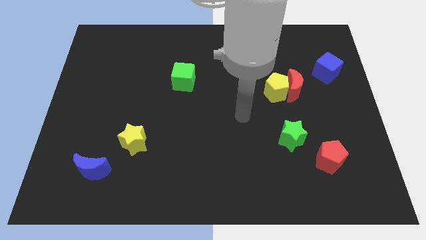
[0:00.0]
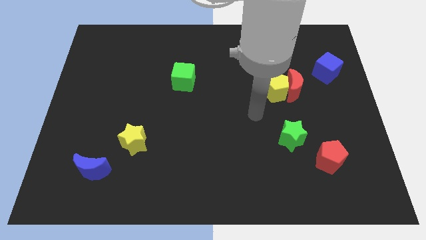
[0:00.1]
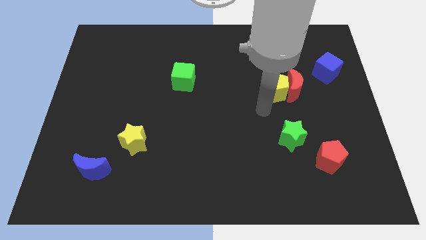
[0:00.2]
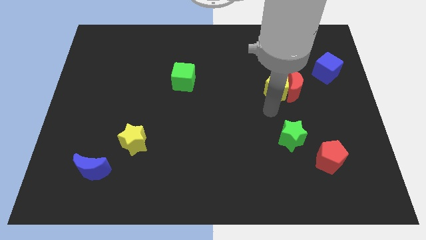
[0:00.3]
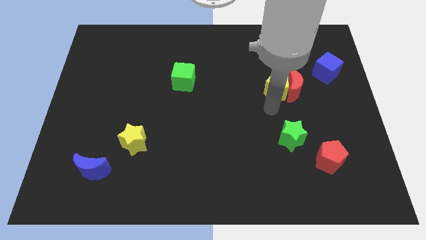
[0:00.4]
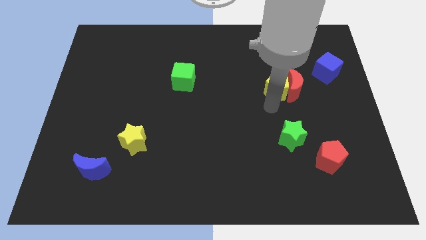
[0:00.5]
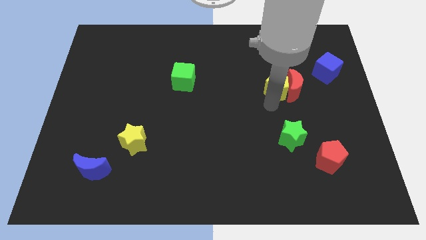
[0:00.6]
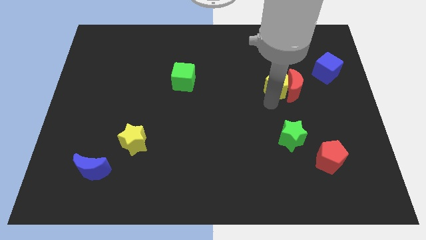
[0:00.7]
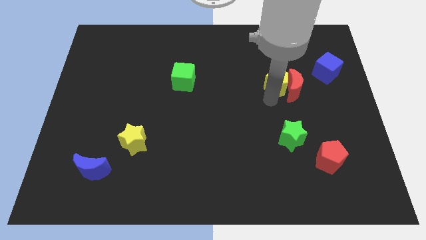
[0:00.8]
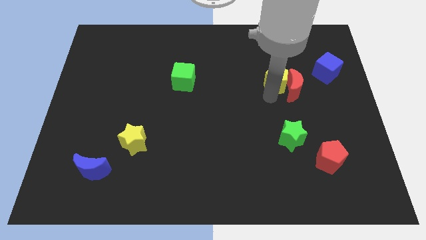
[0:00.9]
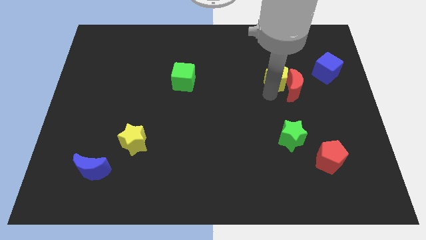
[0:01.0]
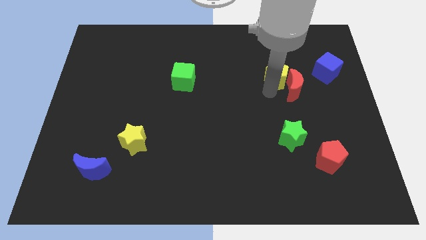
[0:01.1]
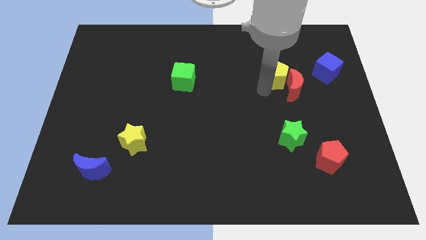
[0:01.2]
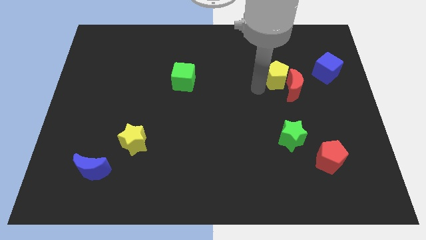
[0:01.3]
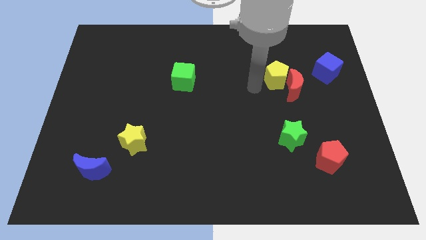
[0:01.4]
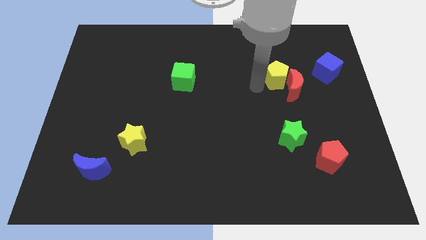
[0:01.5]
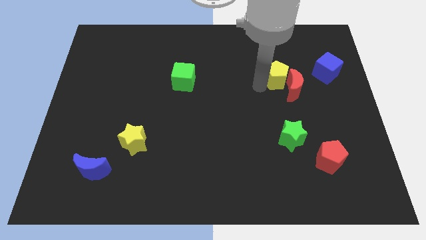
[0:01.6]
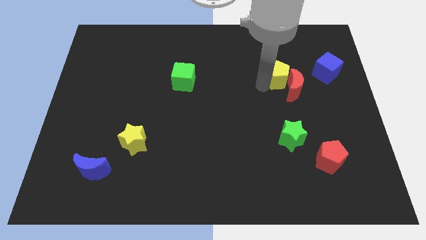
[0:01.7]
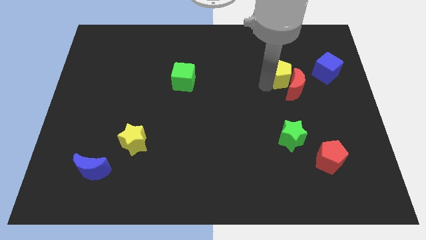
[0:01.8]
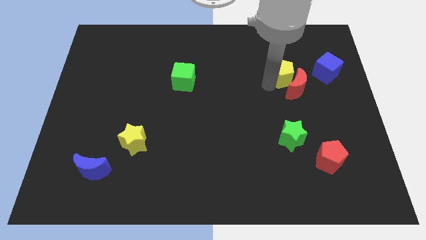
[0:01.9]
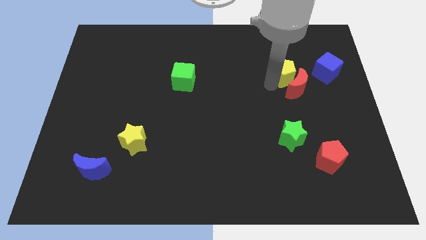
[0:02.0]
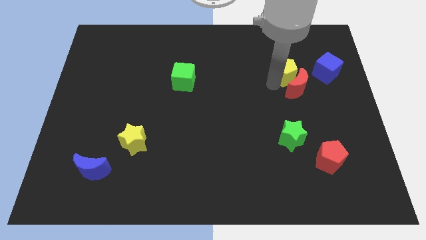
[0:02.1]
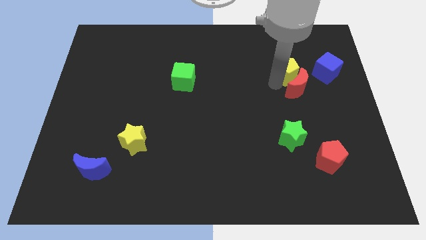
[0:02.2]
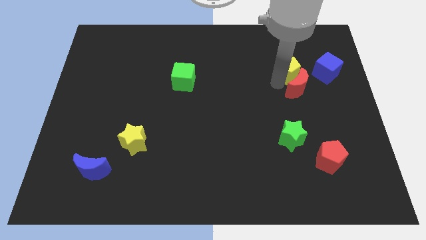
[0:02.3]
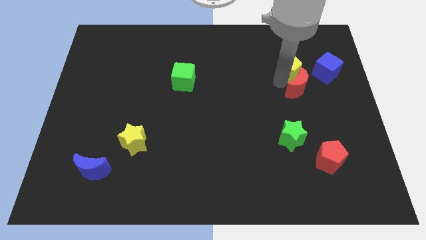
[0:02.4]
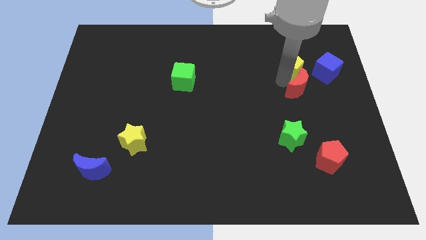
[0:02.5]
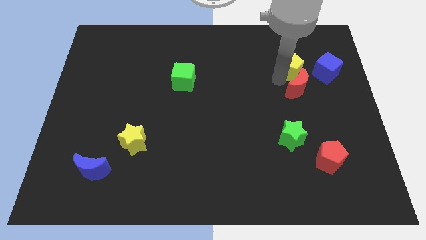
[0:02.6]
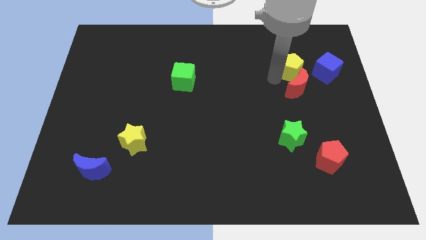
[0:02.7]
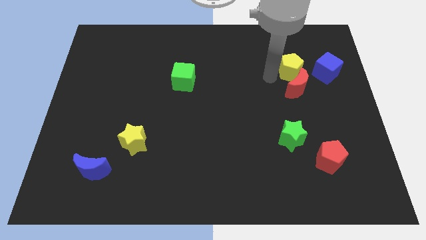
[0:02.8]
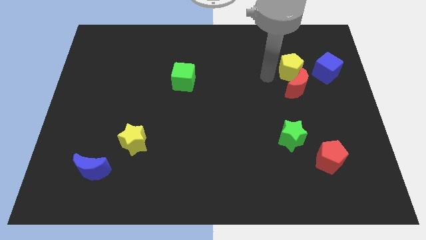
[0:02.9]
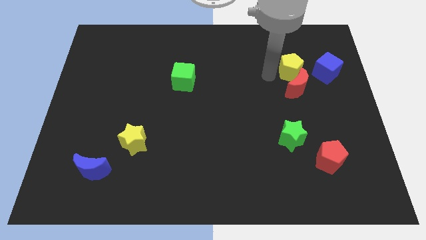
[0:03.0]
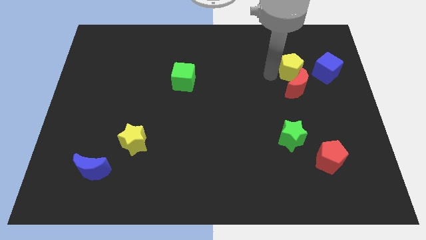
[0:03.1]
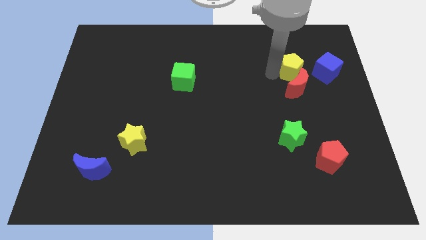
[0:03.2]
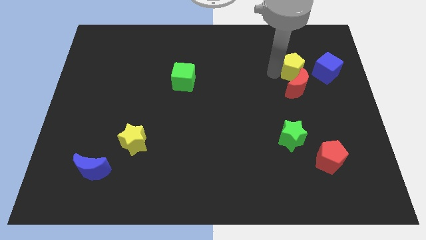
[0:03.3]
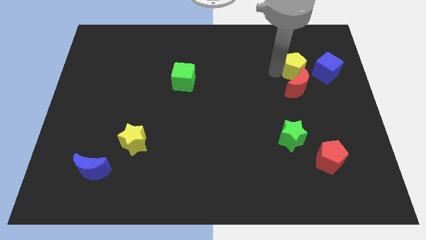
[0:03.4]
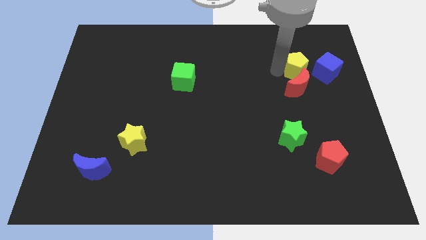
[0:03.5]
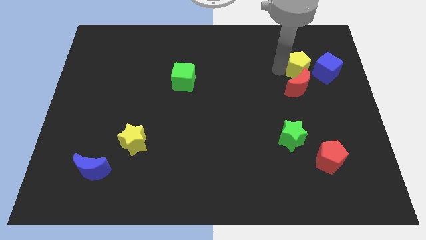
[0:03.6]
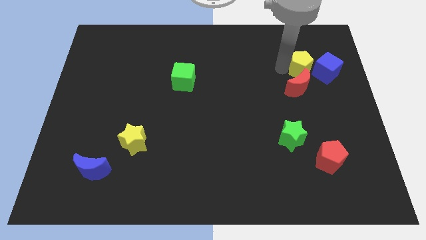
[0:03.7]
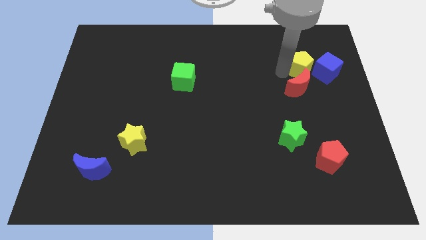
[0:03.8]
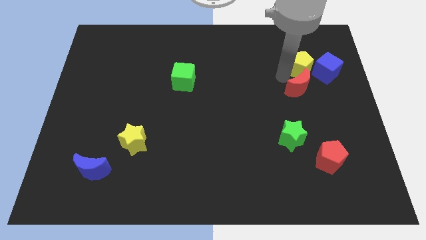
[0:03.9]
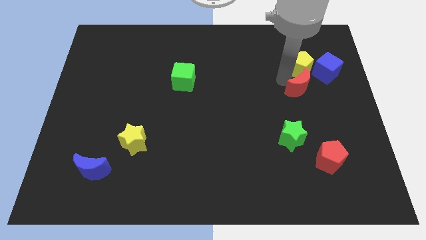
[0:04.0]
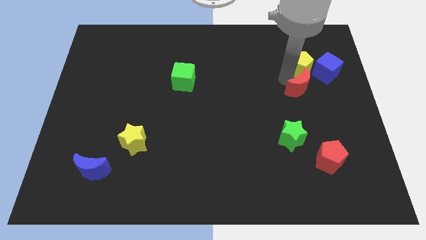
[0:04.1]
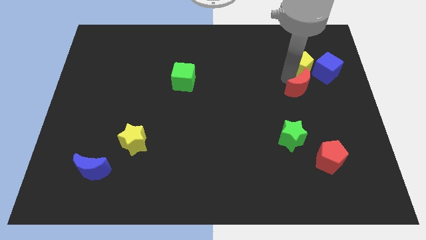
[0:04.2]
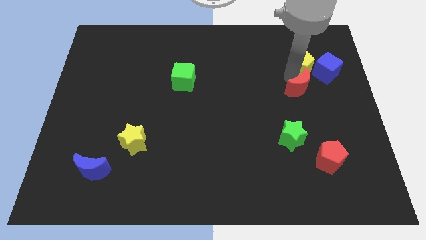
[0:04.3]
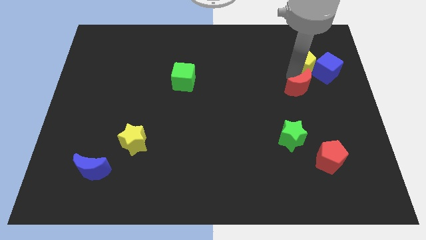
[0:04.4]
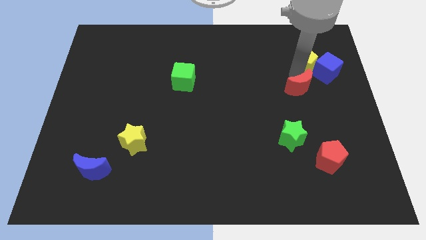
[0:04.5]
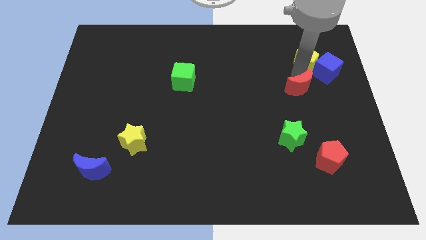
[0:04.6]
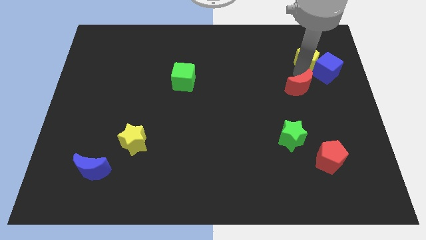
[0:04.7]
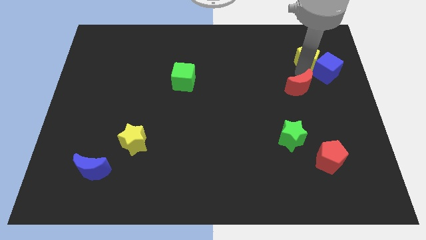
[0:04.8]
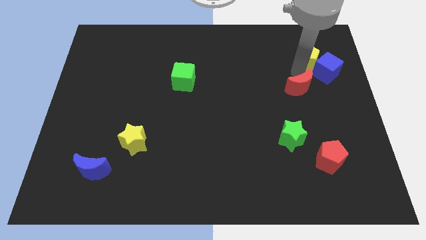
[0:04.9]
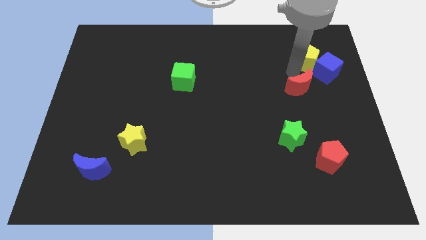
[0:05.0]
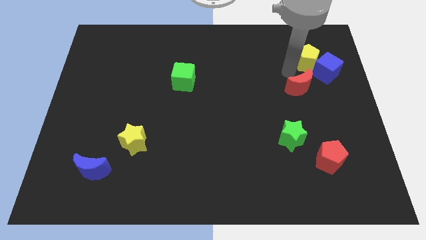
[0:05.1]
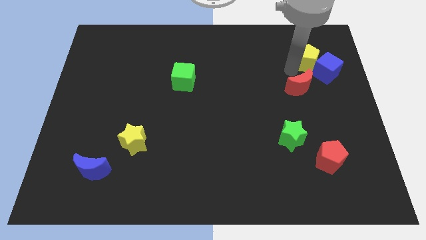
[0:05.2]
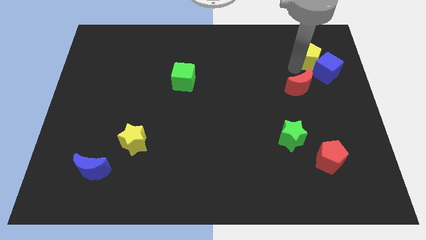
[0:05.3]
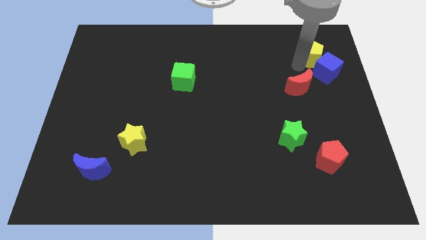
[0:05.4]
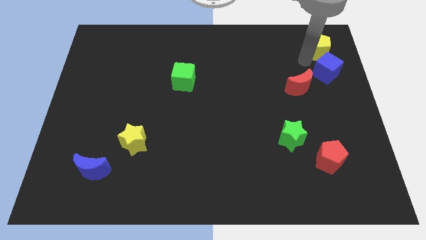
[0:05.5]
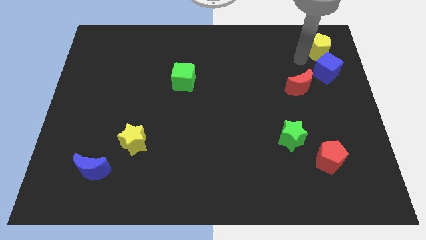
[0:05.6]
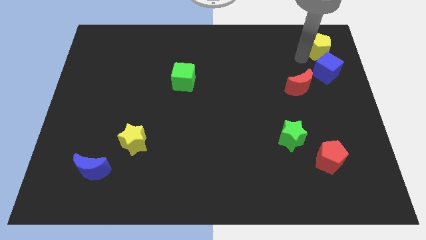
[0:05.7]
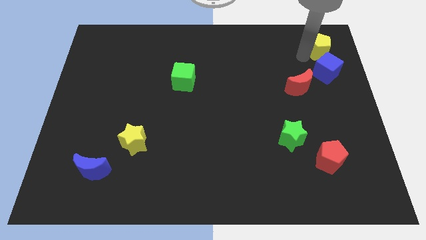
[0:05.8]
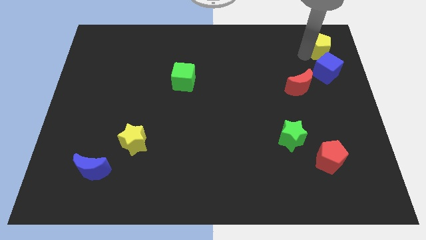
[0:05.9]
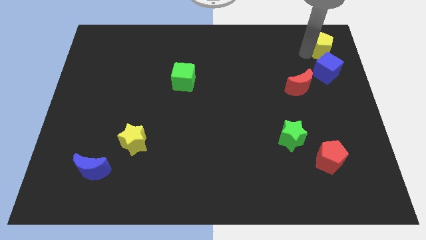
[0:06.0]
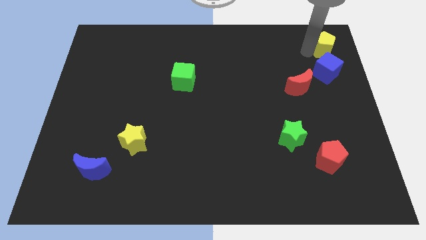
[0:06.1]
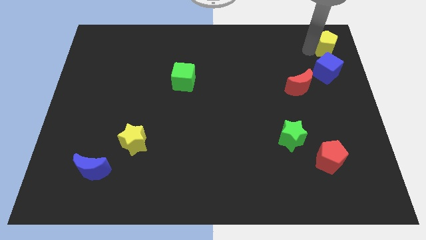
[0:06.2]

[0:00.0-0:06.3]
slide the yellow pentagon to the upper right corner

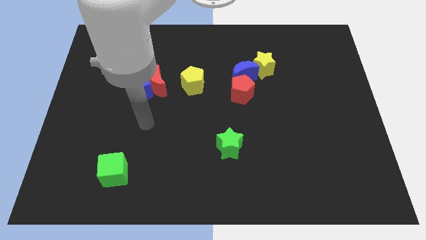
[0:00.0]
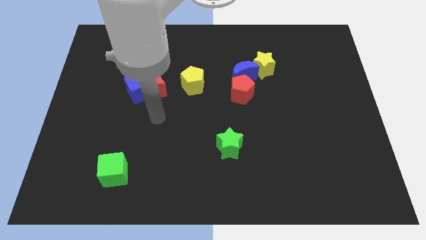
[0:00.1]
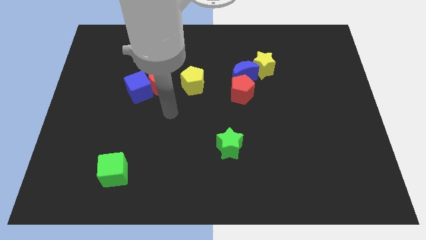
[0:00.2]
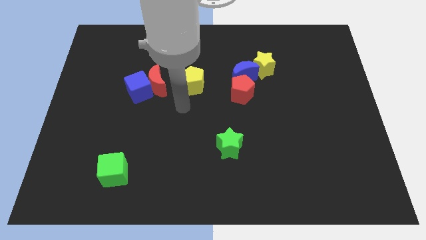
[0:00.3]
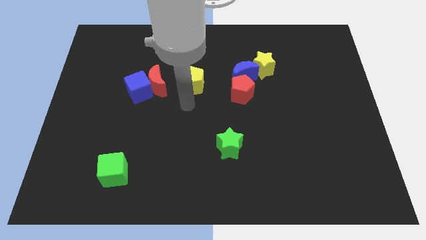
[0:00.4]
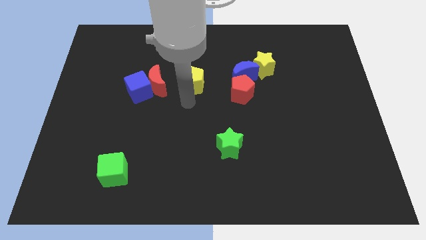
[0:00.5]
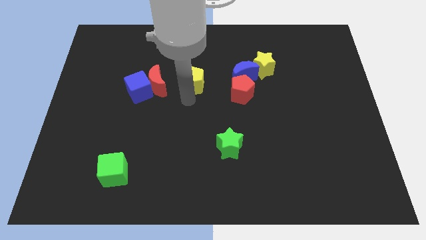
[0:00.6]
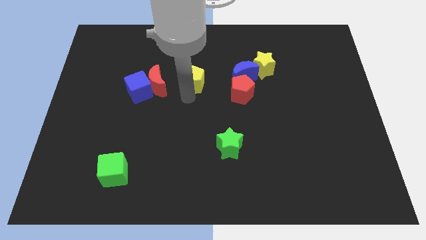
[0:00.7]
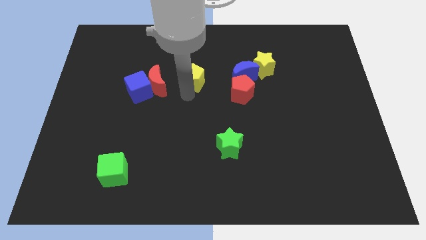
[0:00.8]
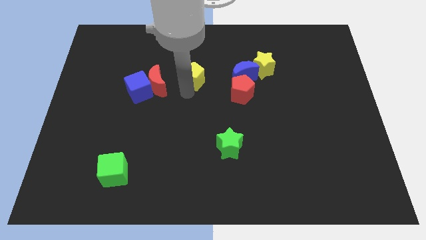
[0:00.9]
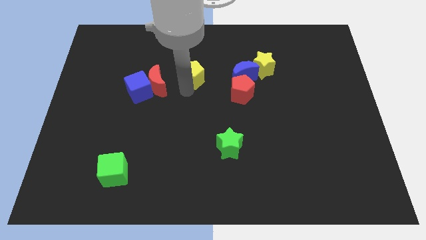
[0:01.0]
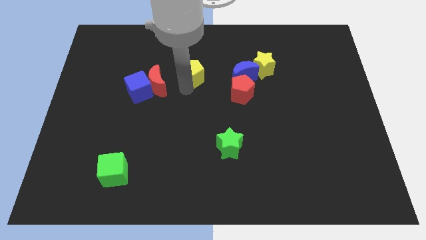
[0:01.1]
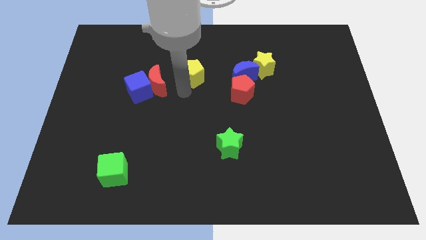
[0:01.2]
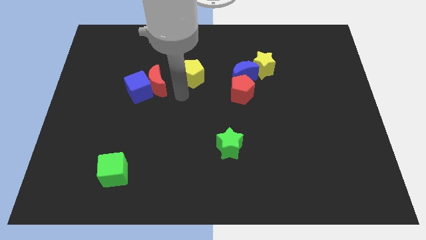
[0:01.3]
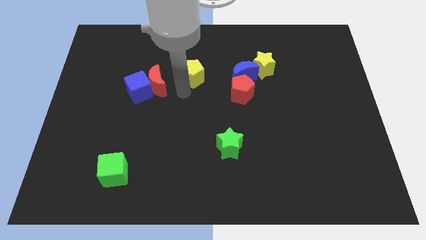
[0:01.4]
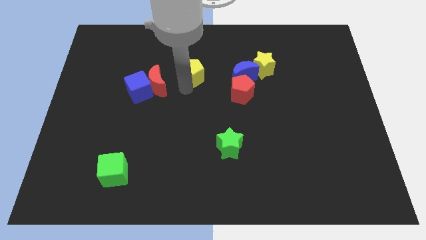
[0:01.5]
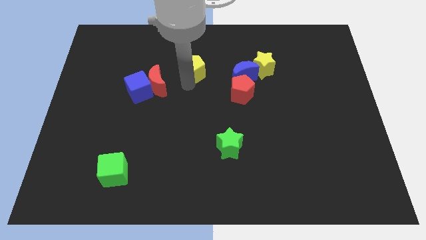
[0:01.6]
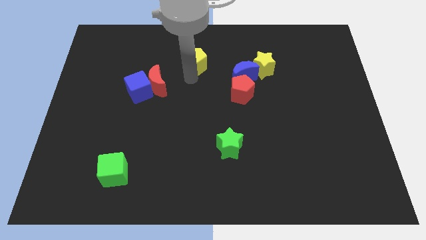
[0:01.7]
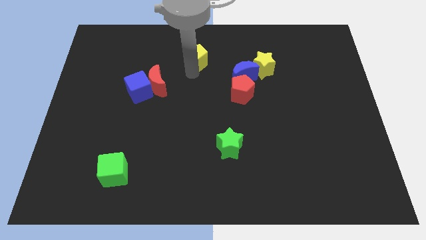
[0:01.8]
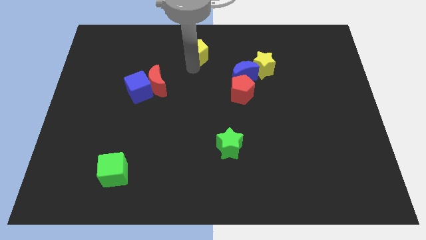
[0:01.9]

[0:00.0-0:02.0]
push the yellow pentagon to the towards your base
